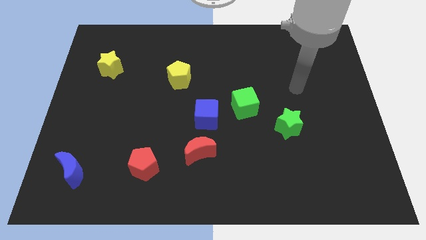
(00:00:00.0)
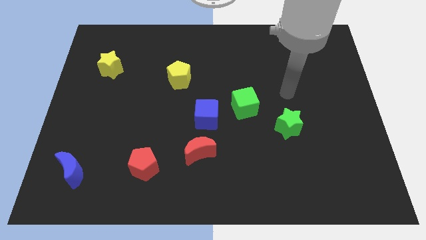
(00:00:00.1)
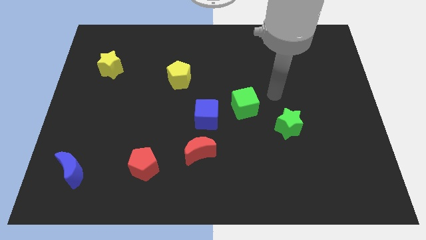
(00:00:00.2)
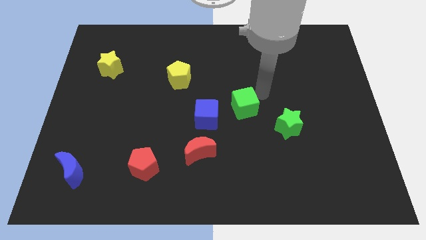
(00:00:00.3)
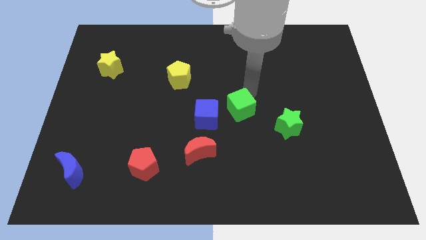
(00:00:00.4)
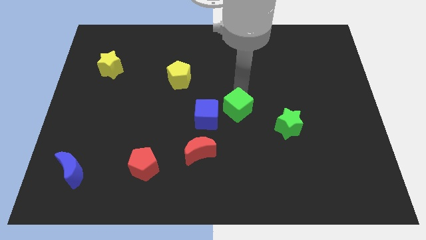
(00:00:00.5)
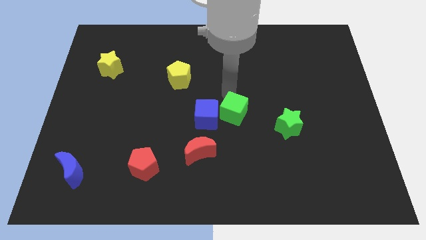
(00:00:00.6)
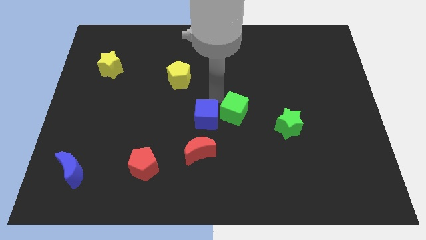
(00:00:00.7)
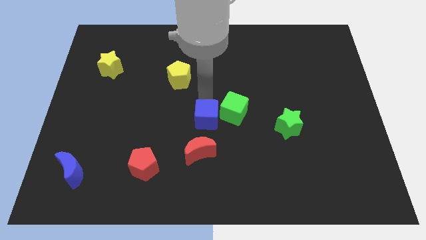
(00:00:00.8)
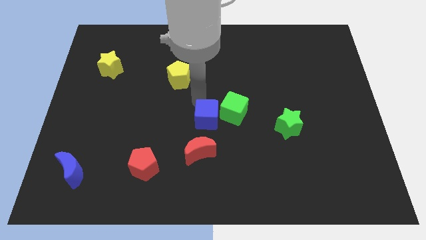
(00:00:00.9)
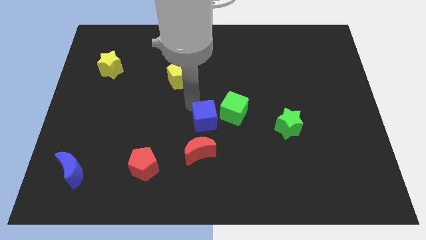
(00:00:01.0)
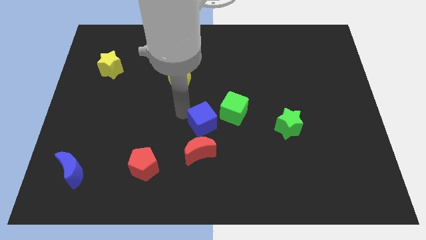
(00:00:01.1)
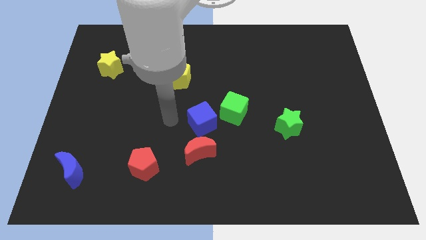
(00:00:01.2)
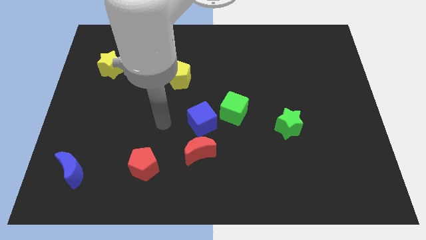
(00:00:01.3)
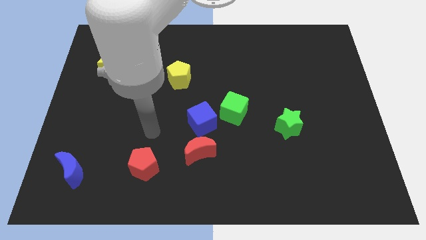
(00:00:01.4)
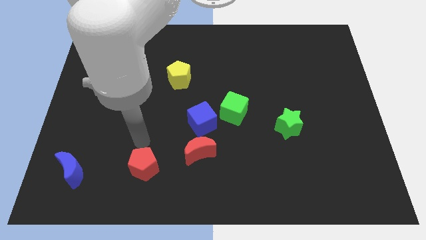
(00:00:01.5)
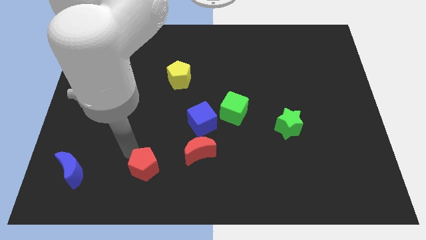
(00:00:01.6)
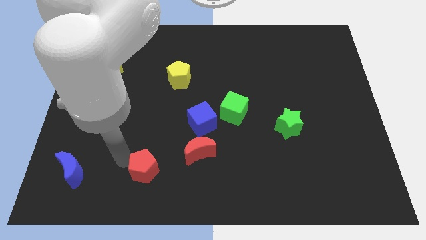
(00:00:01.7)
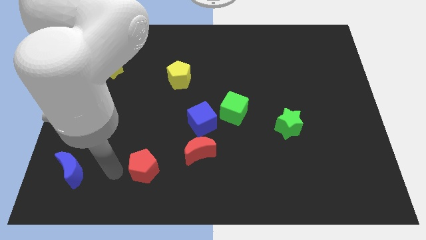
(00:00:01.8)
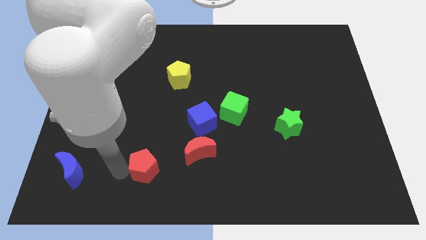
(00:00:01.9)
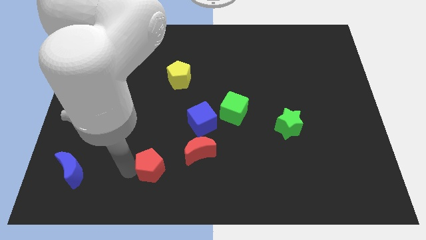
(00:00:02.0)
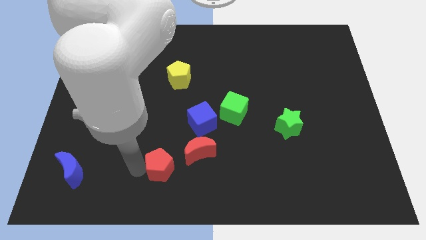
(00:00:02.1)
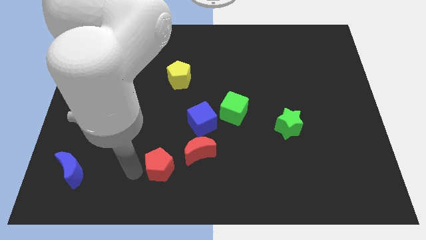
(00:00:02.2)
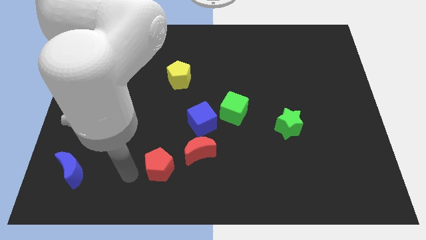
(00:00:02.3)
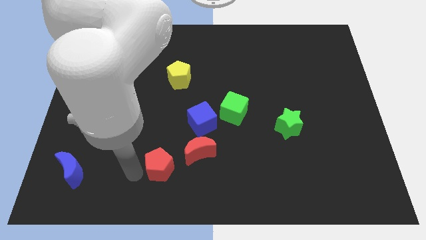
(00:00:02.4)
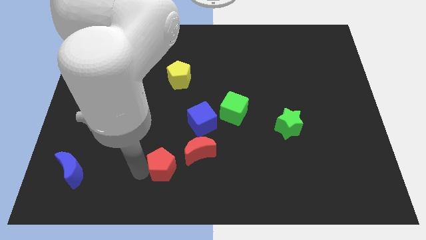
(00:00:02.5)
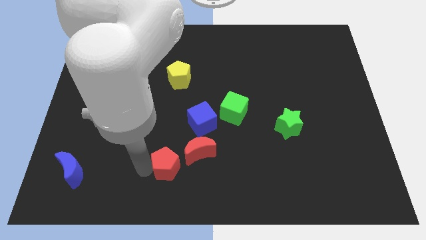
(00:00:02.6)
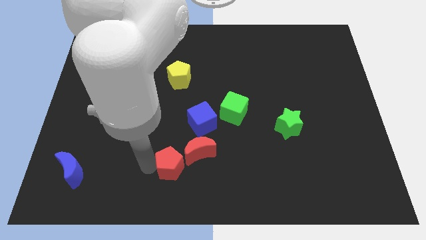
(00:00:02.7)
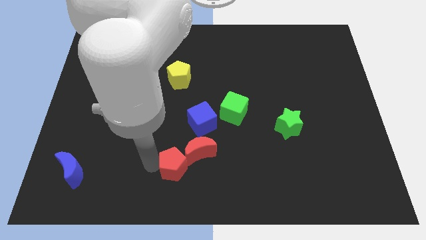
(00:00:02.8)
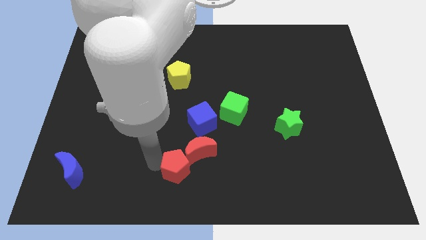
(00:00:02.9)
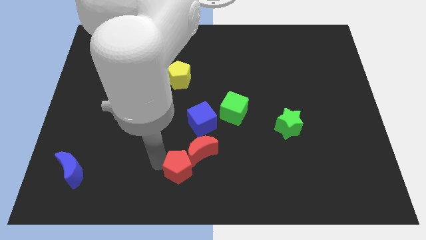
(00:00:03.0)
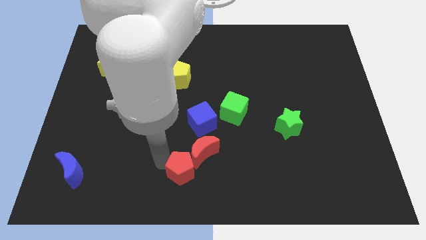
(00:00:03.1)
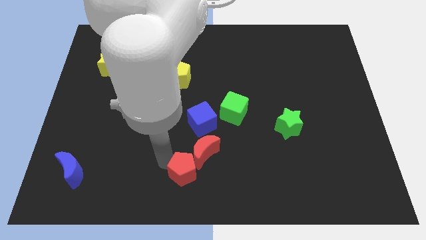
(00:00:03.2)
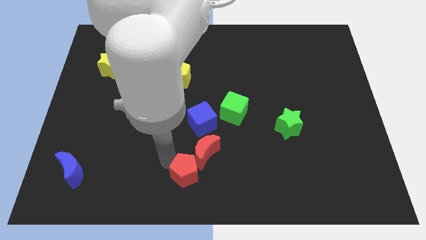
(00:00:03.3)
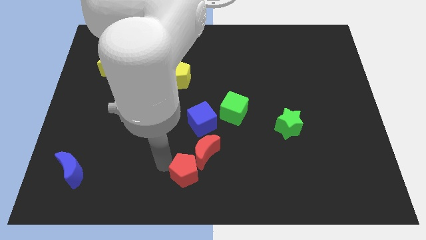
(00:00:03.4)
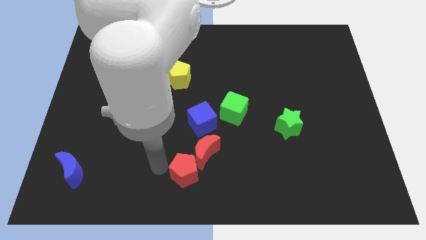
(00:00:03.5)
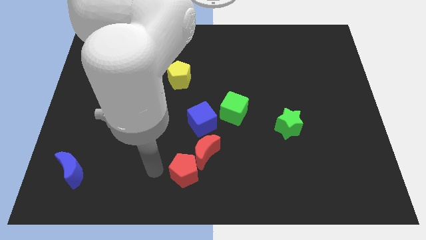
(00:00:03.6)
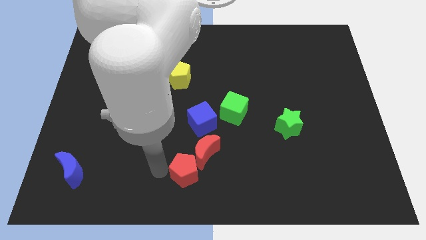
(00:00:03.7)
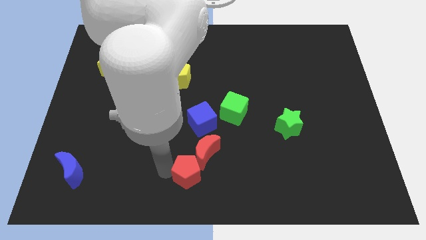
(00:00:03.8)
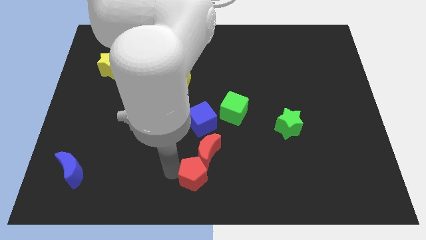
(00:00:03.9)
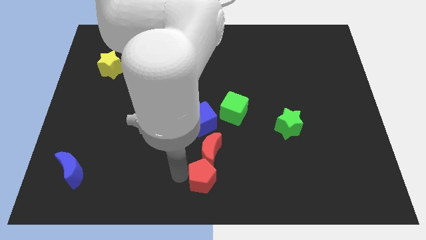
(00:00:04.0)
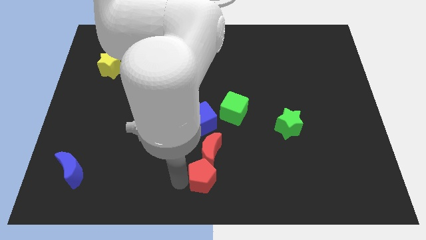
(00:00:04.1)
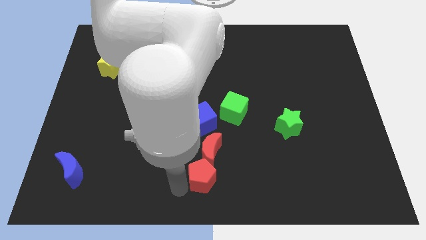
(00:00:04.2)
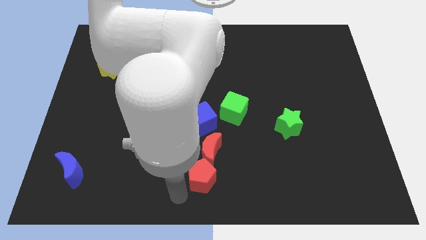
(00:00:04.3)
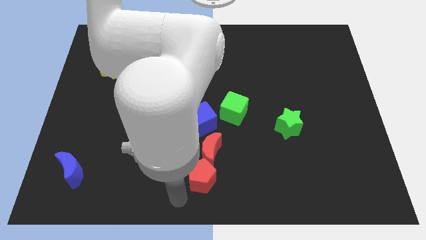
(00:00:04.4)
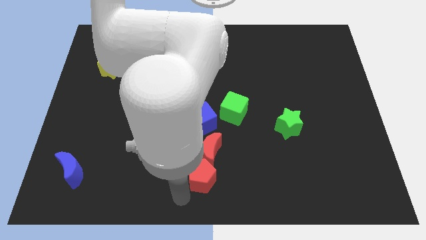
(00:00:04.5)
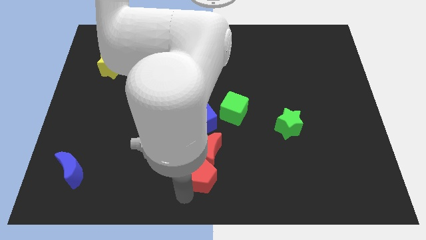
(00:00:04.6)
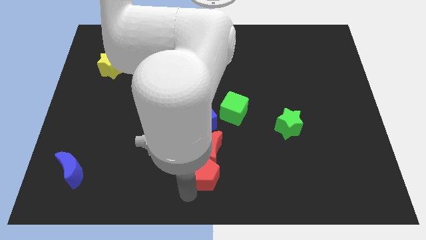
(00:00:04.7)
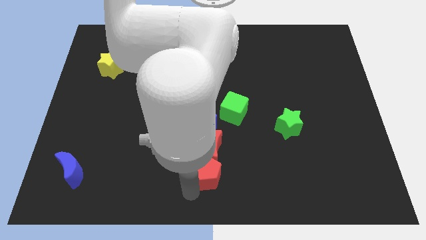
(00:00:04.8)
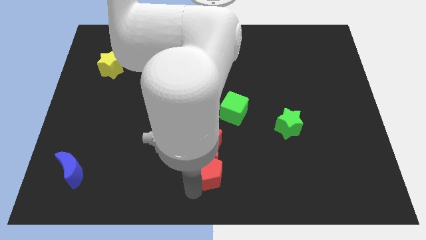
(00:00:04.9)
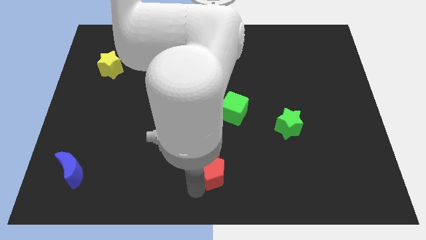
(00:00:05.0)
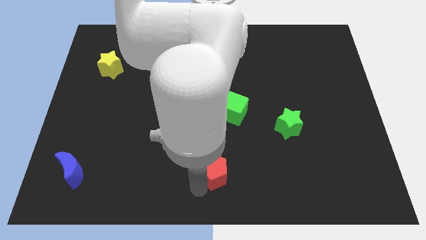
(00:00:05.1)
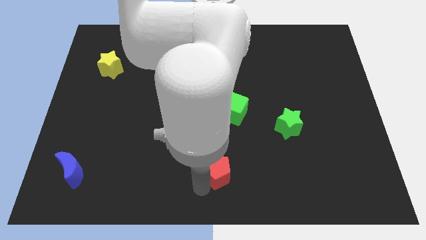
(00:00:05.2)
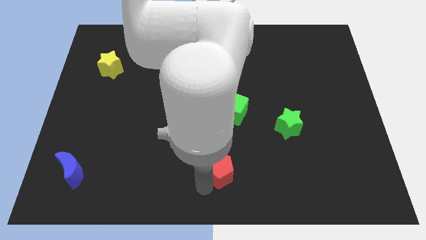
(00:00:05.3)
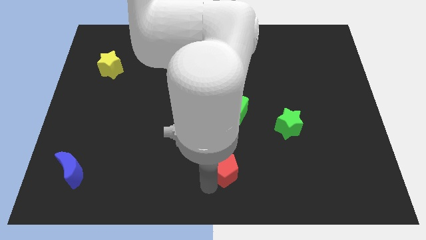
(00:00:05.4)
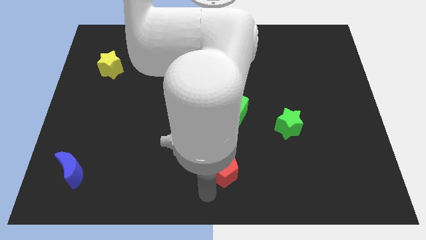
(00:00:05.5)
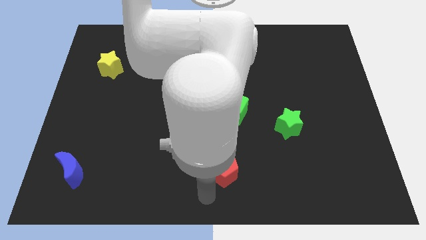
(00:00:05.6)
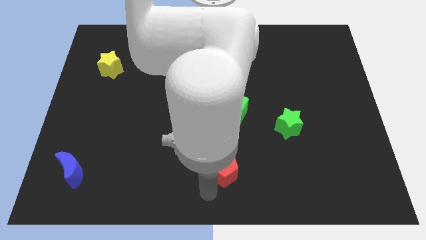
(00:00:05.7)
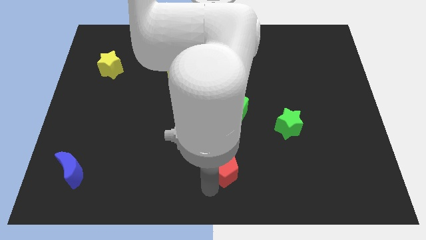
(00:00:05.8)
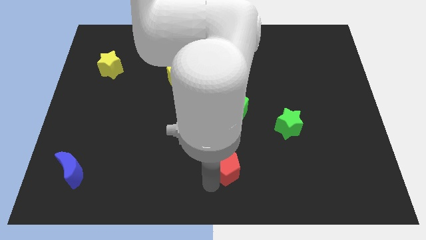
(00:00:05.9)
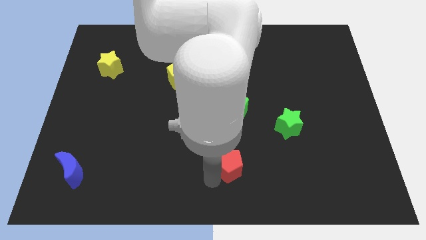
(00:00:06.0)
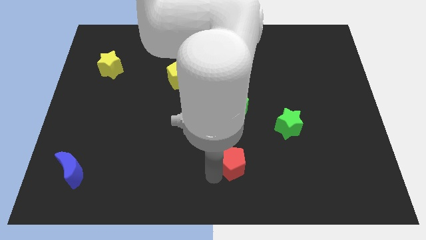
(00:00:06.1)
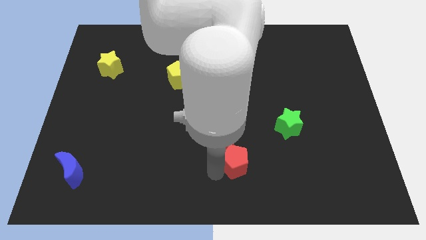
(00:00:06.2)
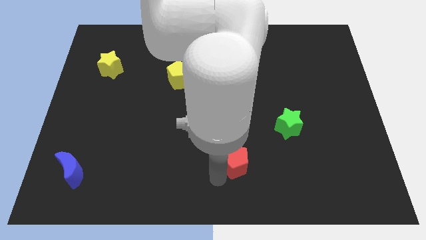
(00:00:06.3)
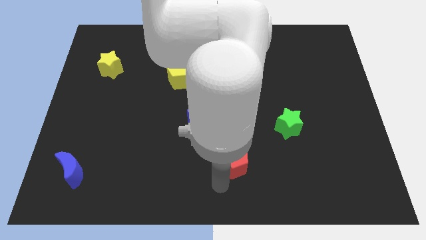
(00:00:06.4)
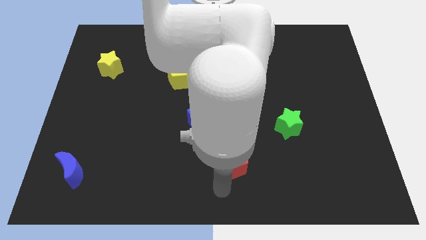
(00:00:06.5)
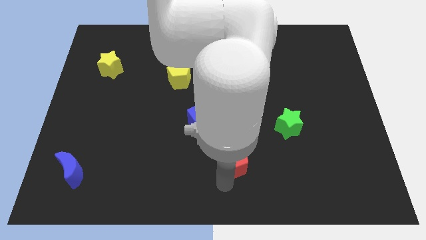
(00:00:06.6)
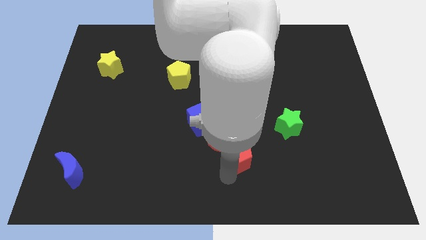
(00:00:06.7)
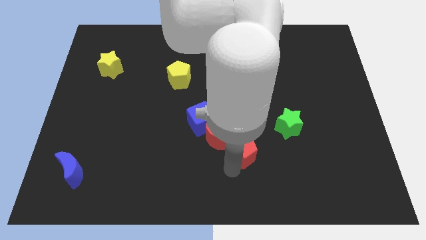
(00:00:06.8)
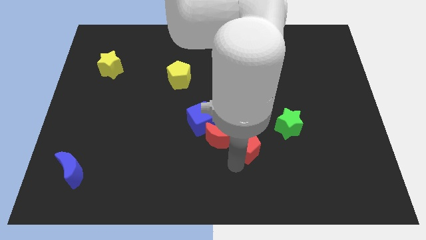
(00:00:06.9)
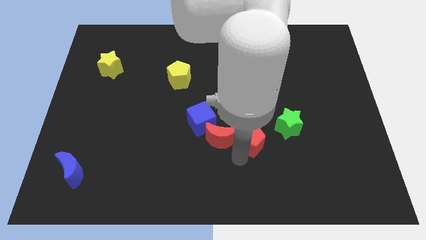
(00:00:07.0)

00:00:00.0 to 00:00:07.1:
push the red pentagon diagonally down and to the right of the green cube
